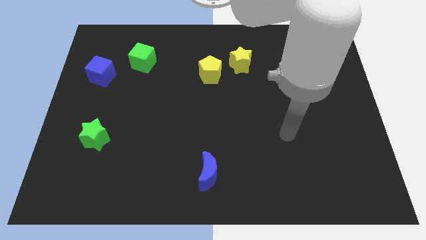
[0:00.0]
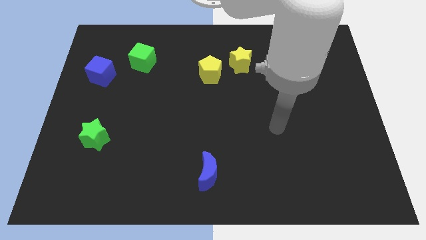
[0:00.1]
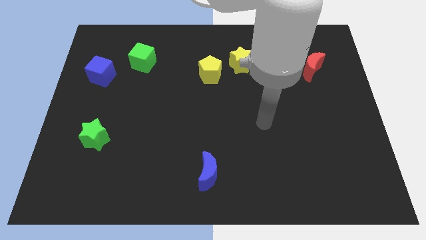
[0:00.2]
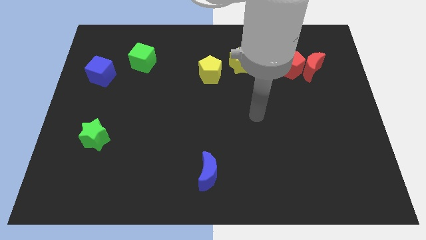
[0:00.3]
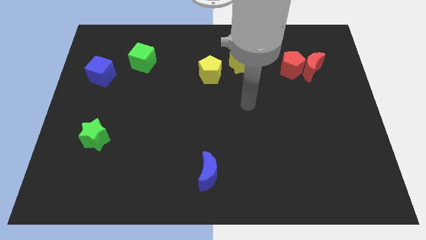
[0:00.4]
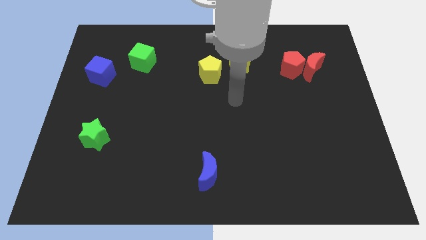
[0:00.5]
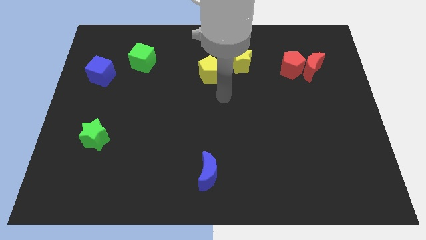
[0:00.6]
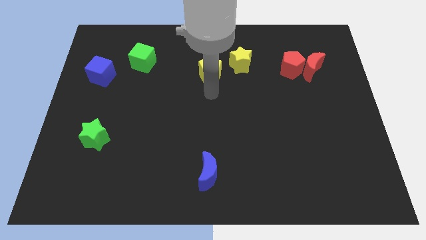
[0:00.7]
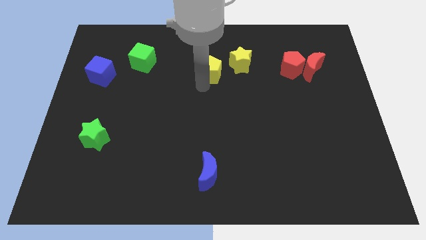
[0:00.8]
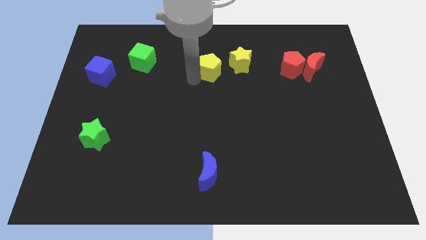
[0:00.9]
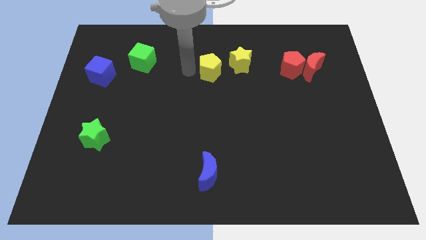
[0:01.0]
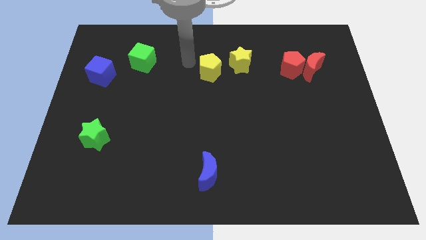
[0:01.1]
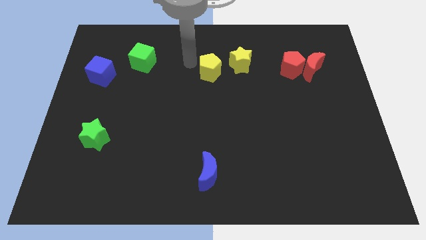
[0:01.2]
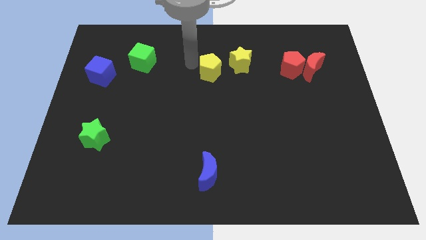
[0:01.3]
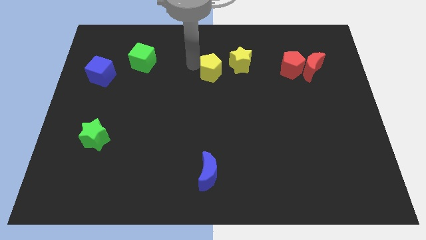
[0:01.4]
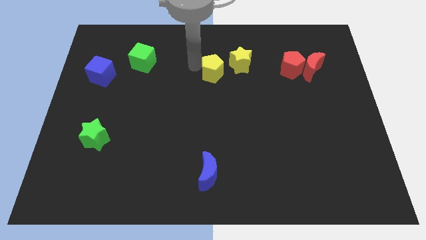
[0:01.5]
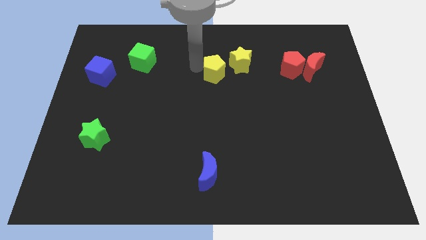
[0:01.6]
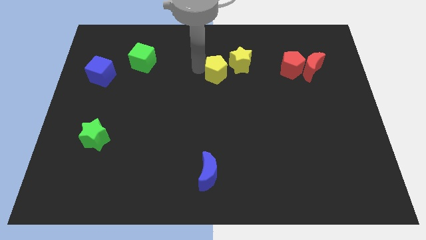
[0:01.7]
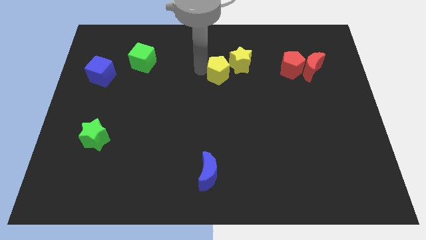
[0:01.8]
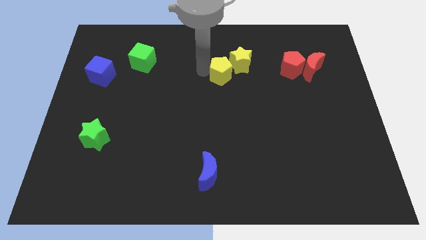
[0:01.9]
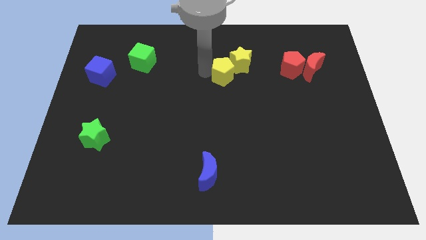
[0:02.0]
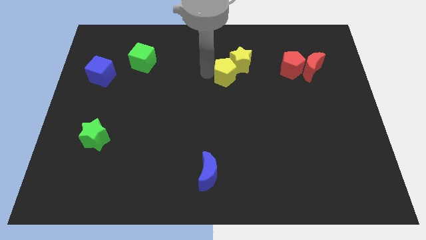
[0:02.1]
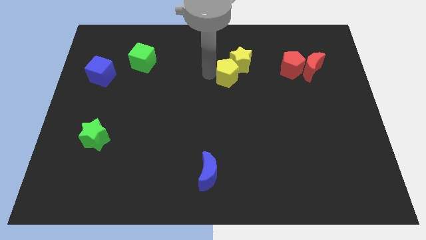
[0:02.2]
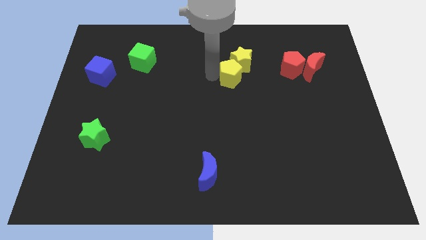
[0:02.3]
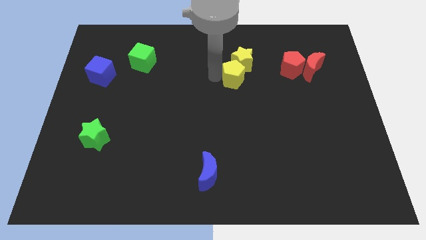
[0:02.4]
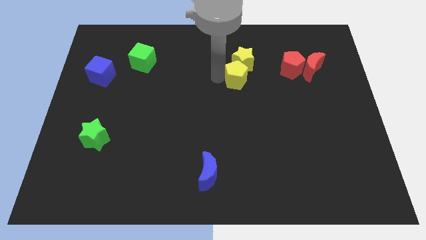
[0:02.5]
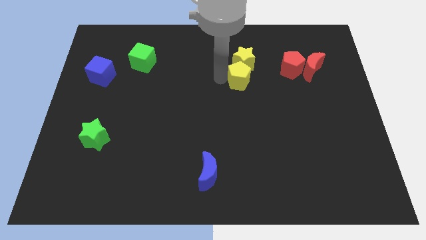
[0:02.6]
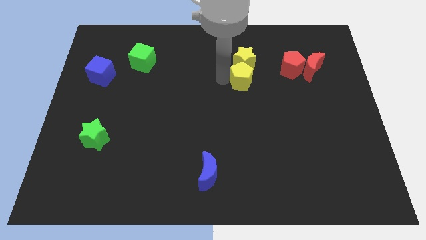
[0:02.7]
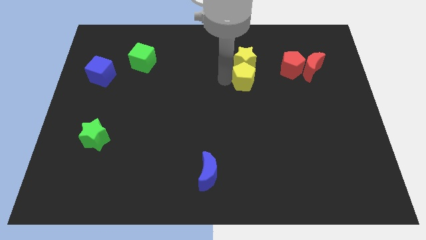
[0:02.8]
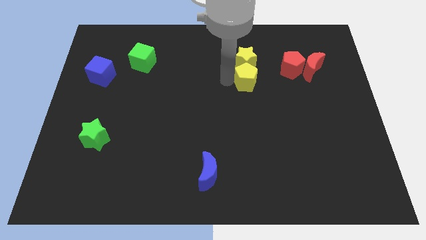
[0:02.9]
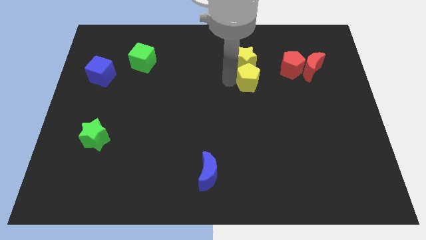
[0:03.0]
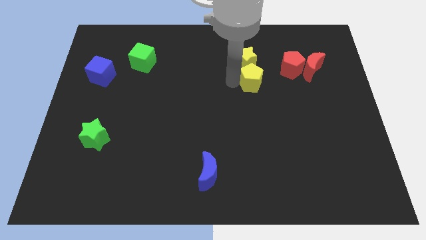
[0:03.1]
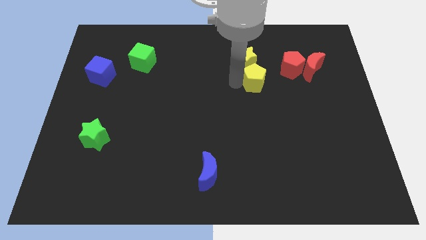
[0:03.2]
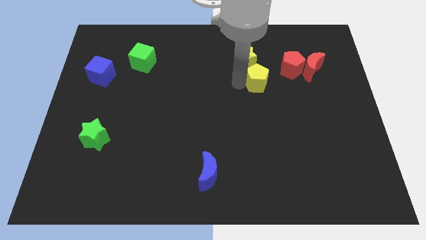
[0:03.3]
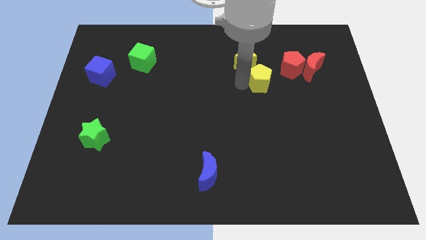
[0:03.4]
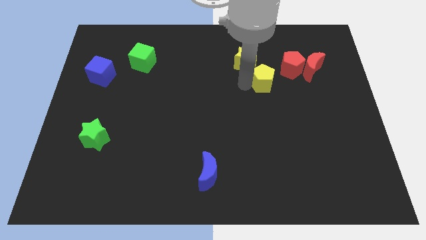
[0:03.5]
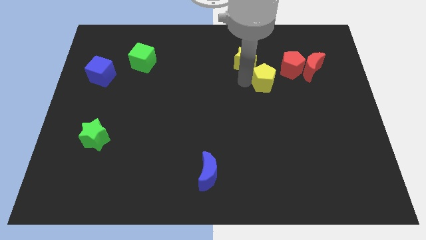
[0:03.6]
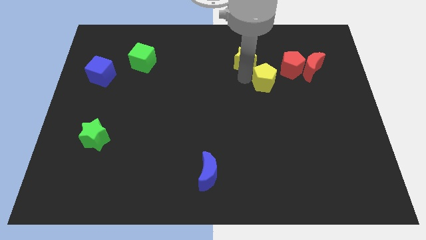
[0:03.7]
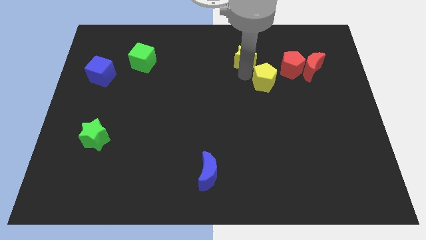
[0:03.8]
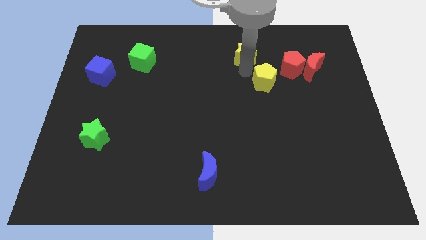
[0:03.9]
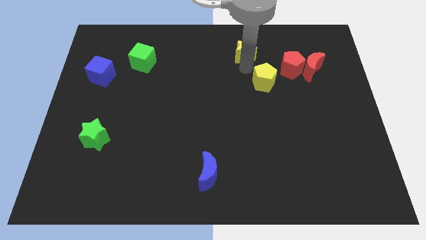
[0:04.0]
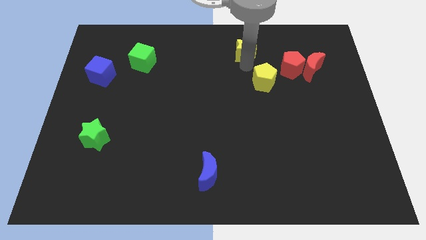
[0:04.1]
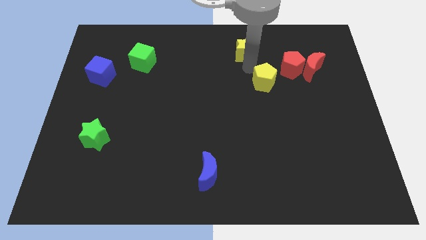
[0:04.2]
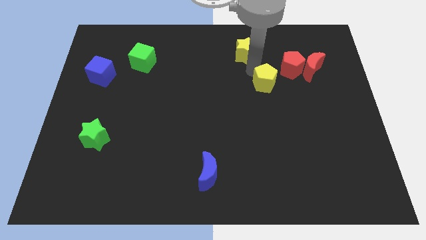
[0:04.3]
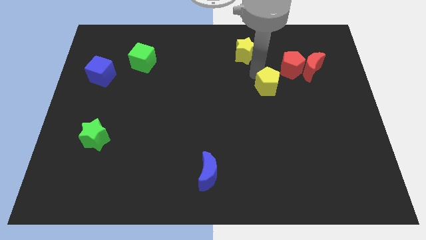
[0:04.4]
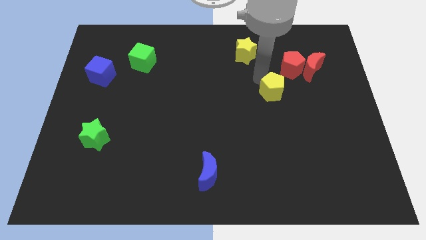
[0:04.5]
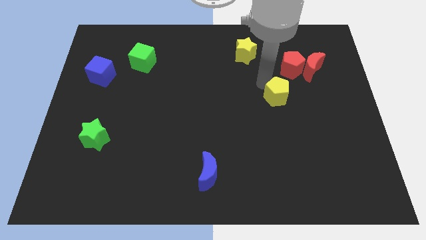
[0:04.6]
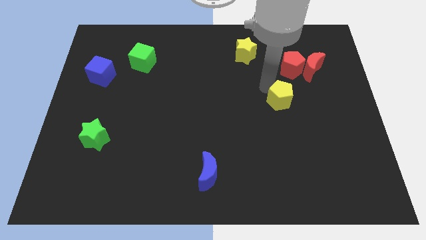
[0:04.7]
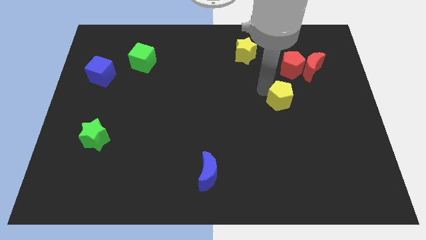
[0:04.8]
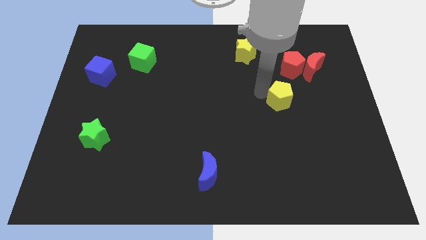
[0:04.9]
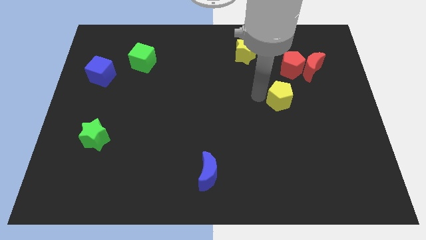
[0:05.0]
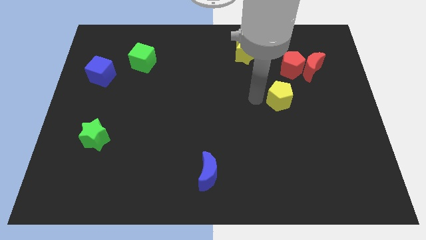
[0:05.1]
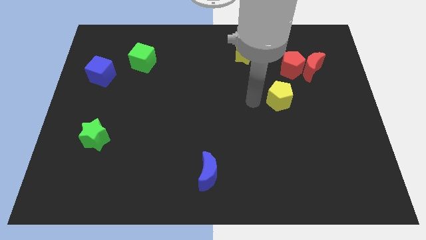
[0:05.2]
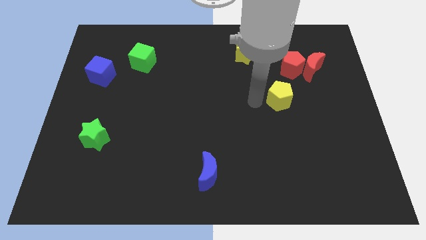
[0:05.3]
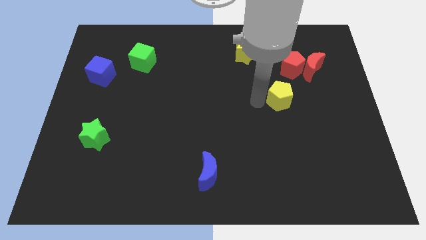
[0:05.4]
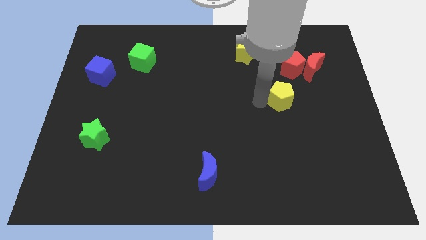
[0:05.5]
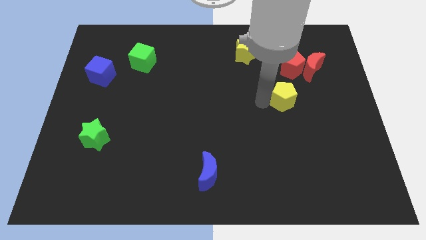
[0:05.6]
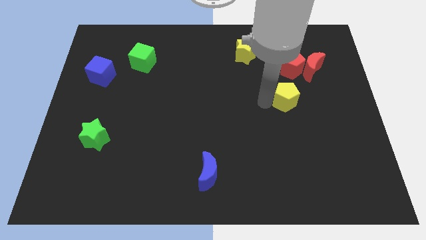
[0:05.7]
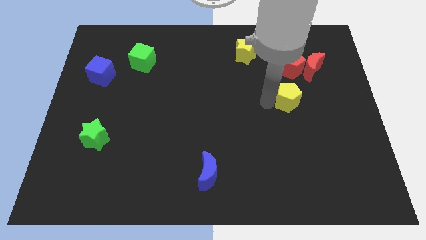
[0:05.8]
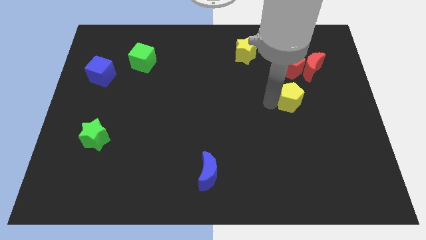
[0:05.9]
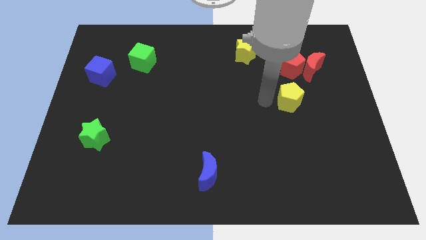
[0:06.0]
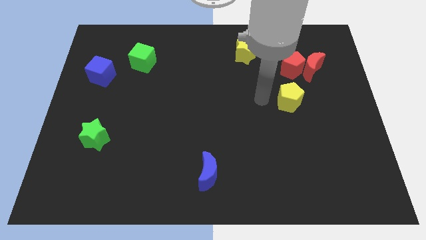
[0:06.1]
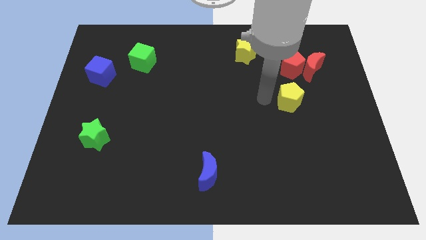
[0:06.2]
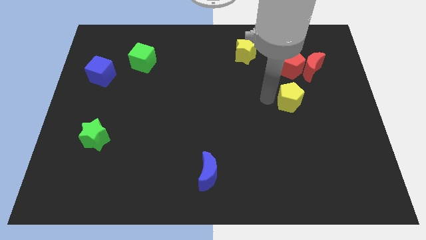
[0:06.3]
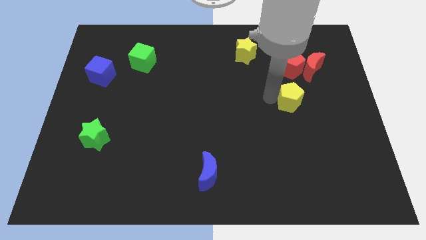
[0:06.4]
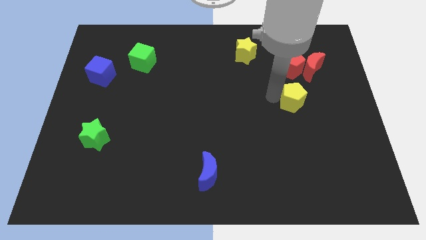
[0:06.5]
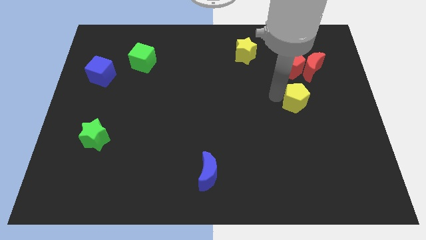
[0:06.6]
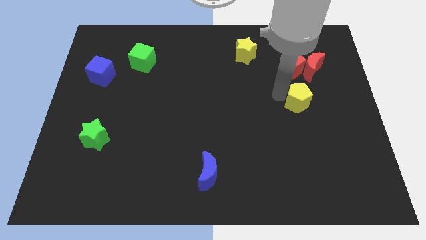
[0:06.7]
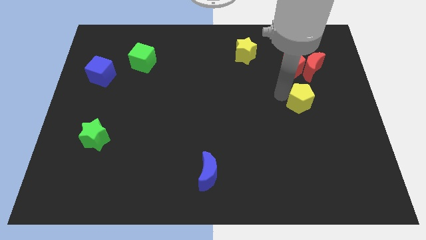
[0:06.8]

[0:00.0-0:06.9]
put the yellow pentagon to the bottom side of the red moon
